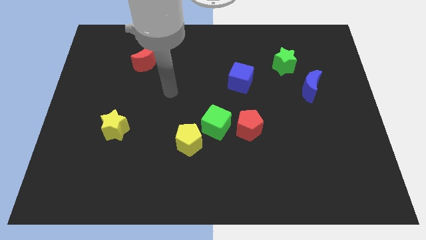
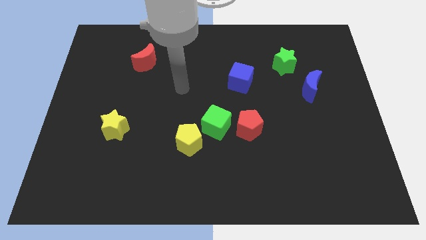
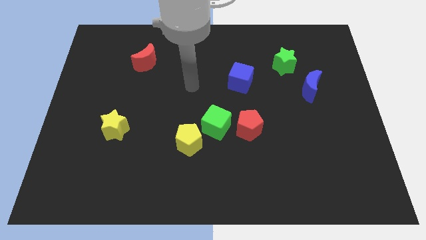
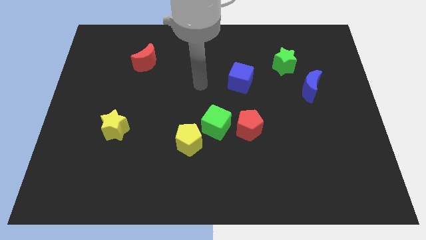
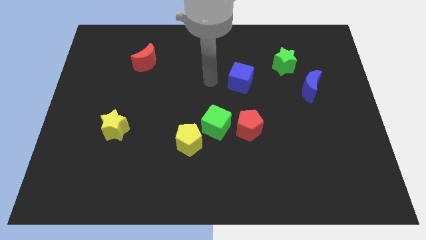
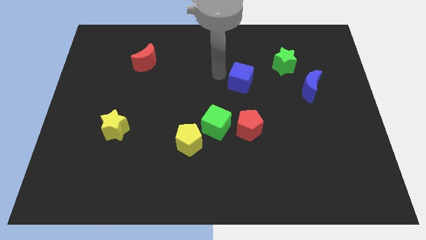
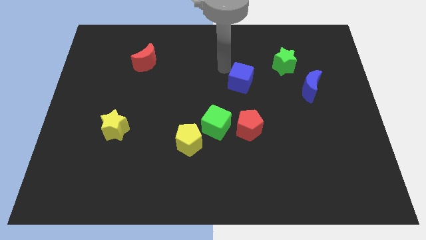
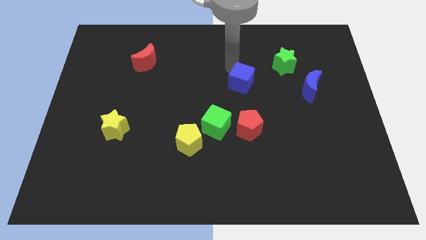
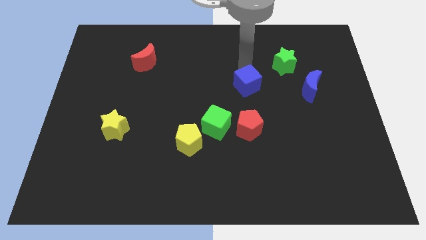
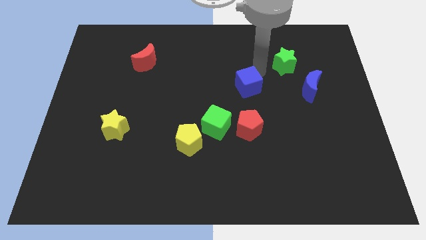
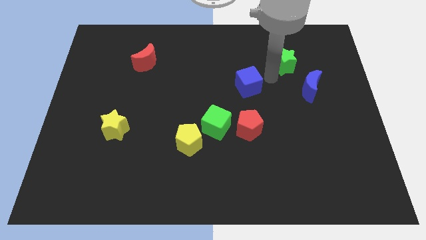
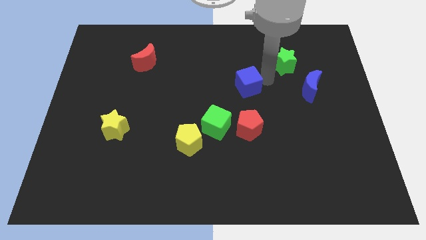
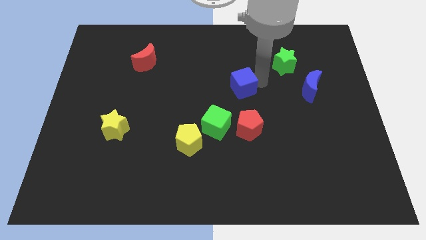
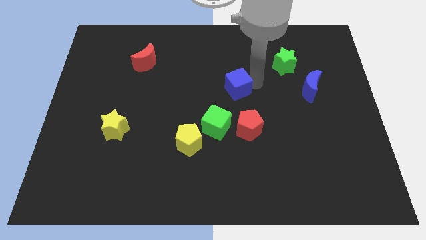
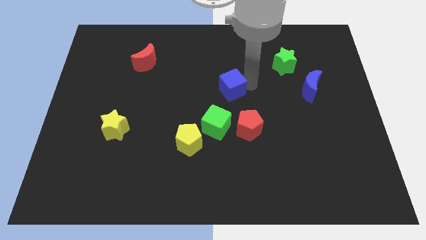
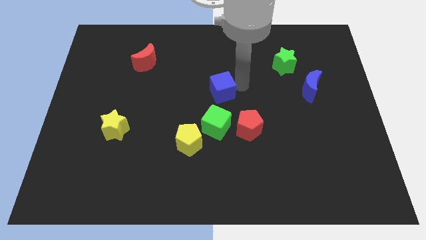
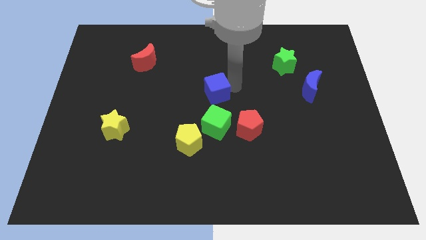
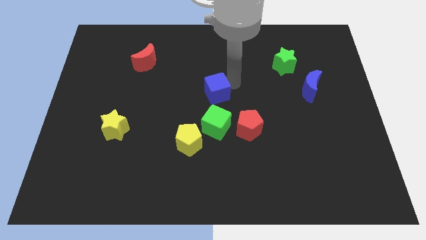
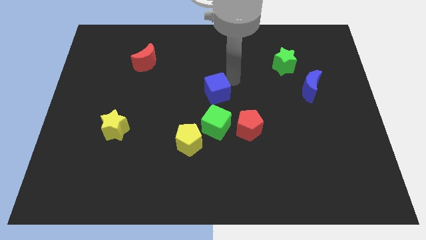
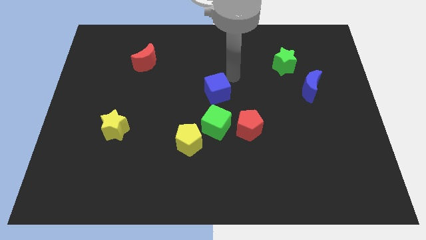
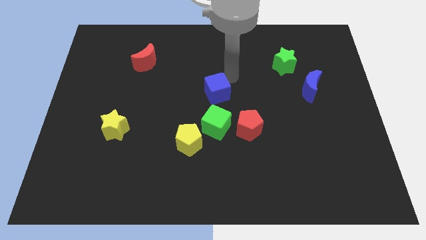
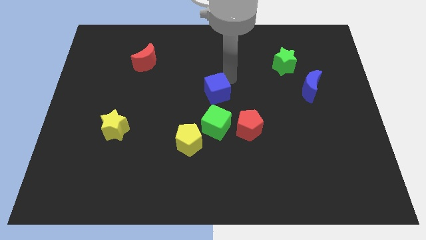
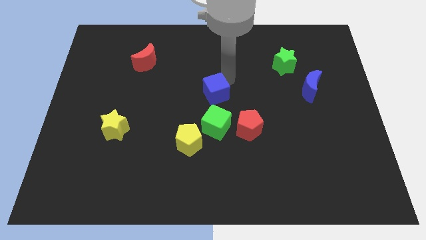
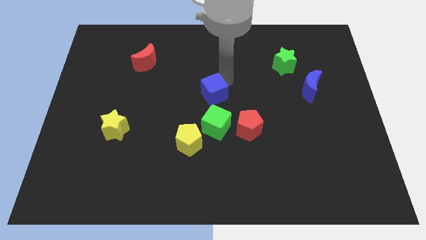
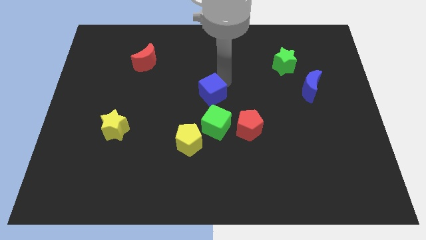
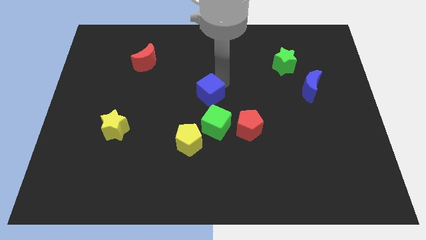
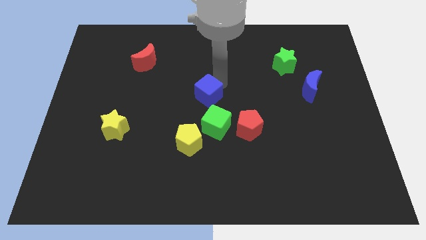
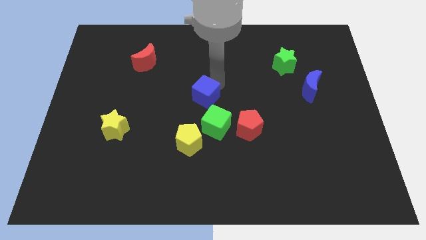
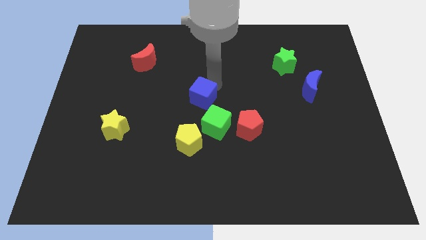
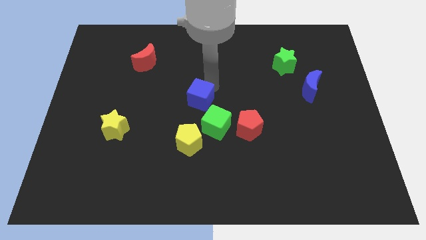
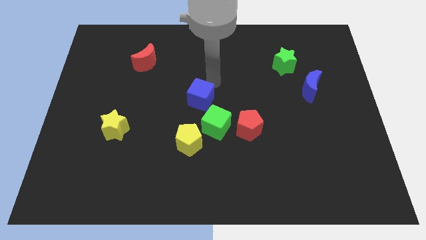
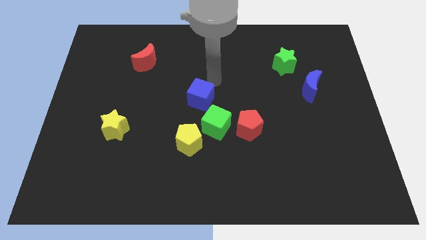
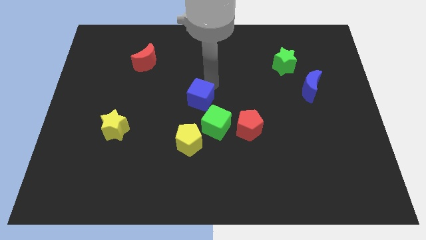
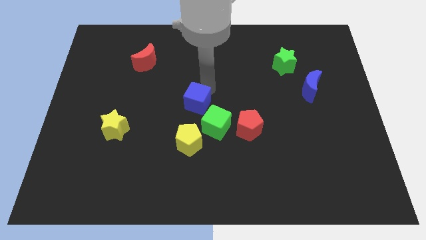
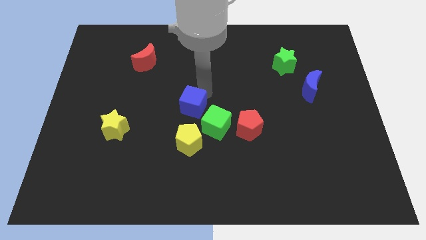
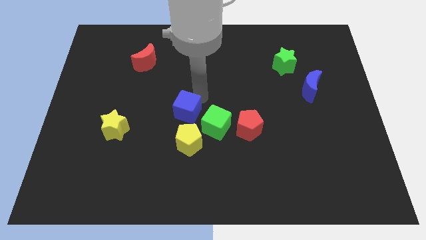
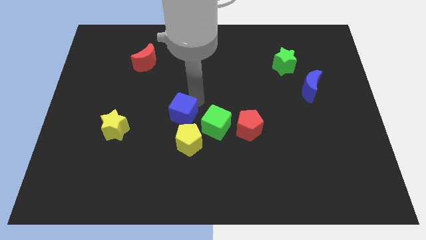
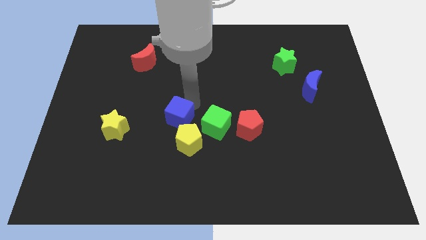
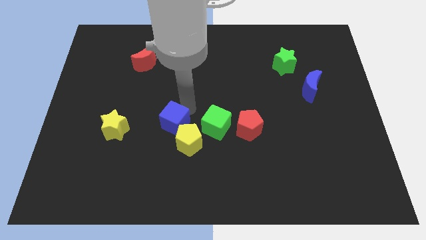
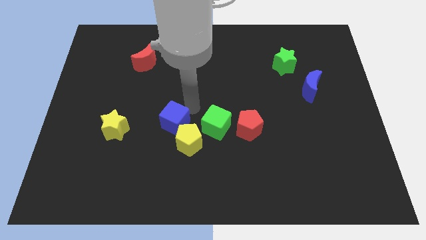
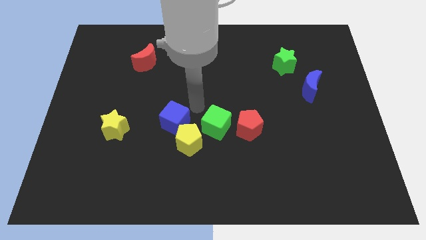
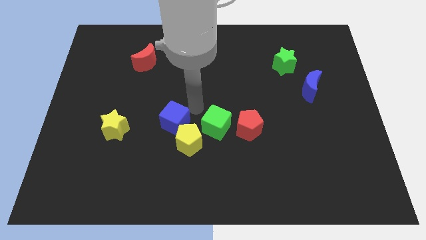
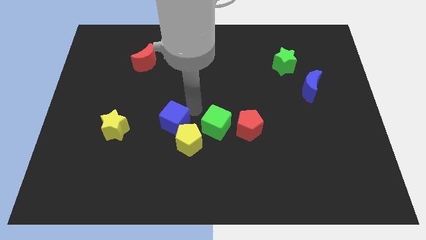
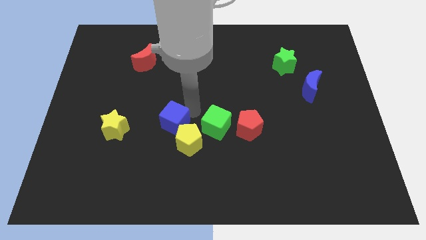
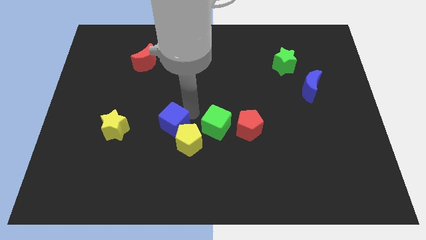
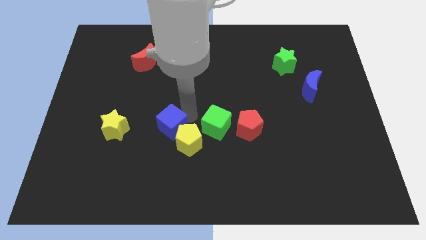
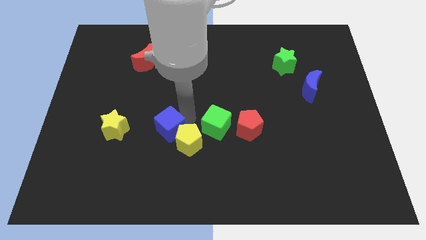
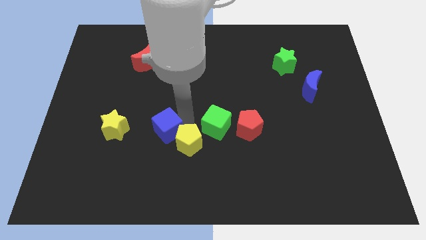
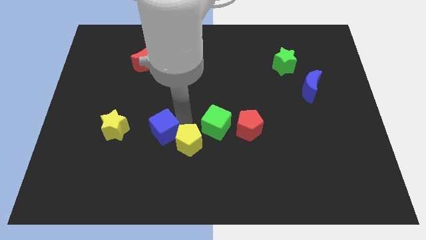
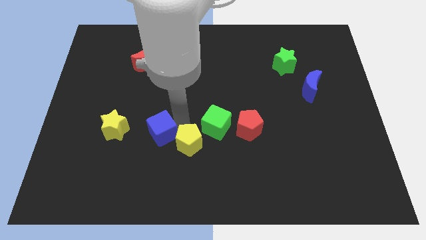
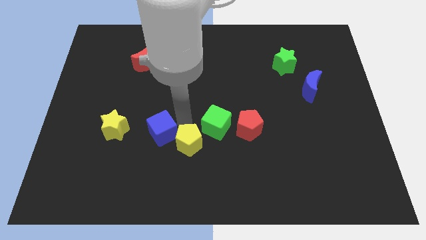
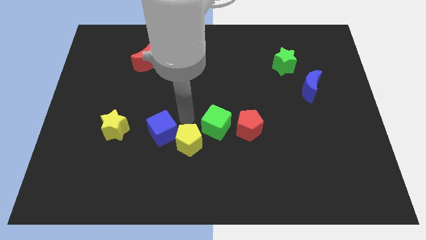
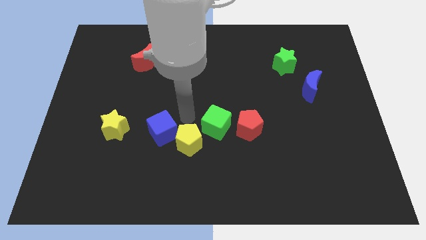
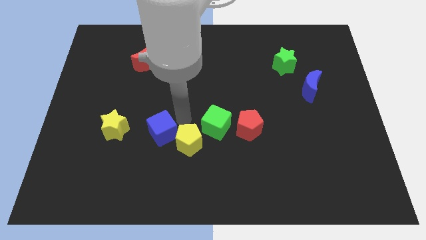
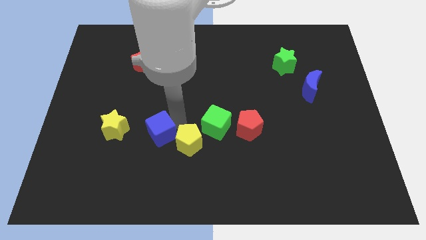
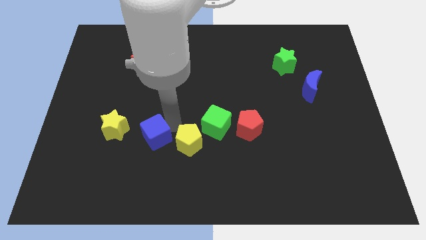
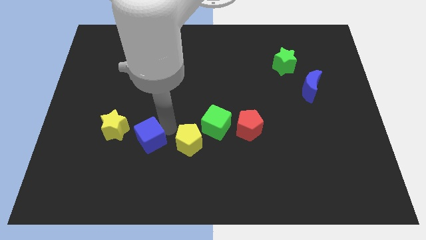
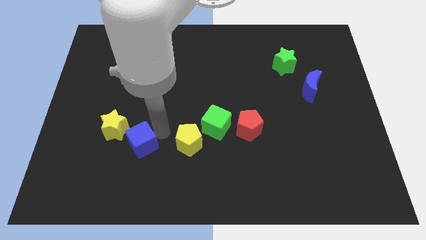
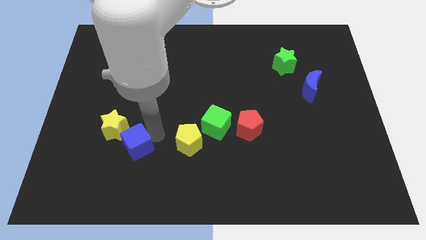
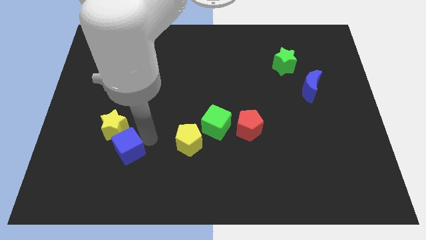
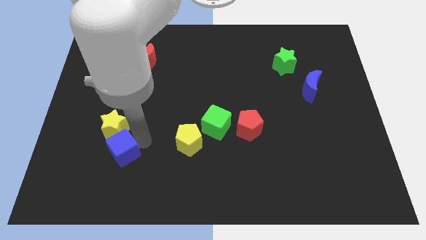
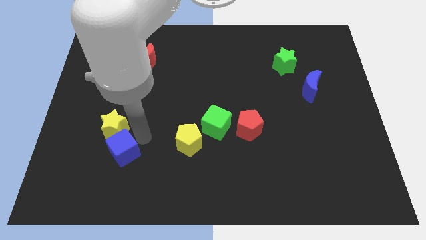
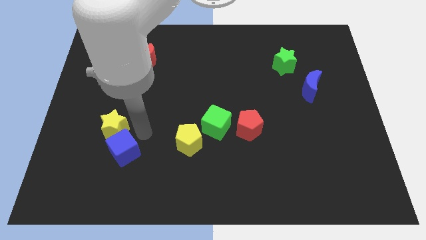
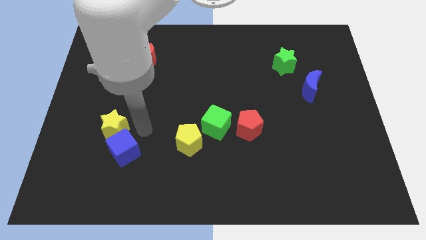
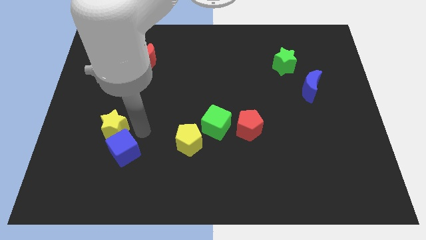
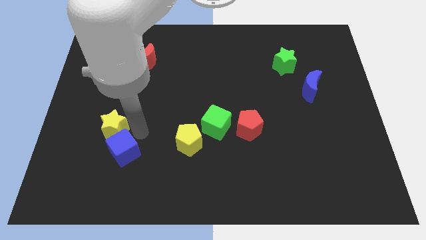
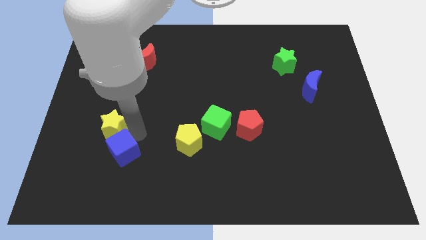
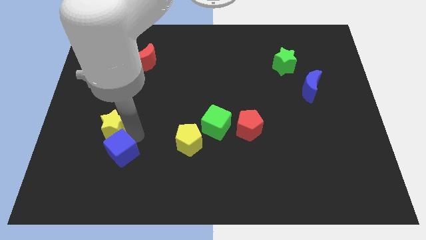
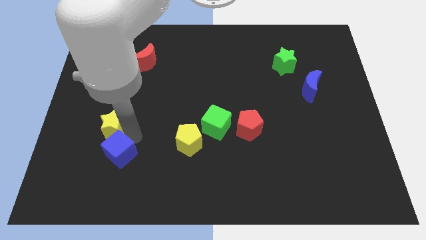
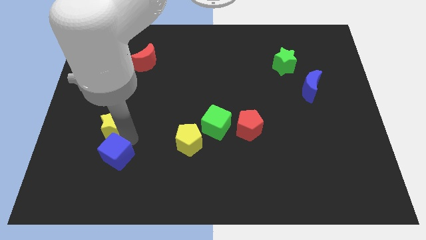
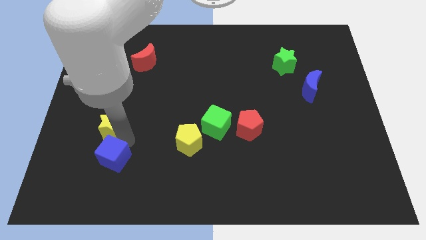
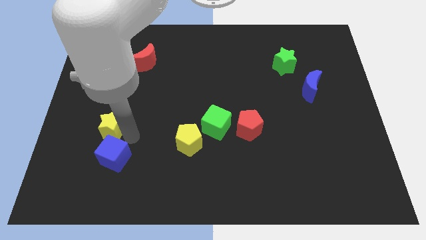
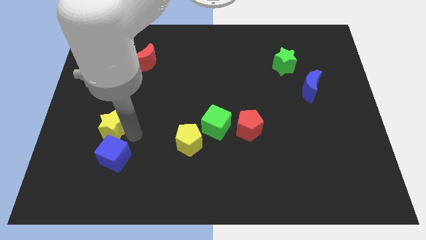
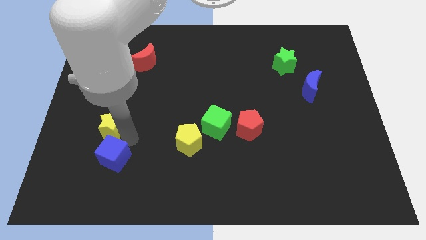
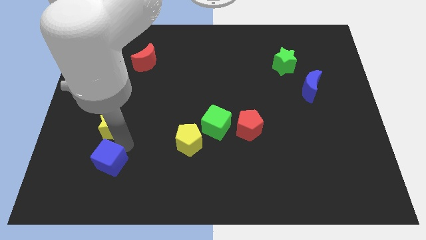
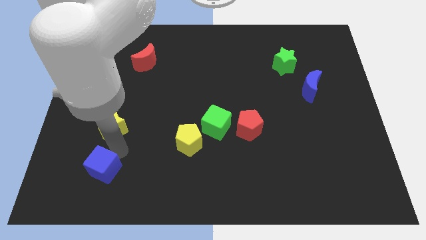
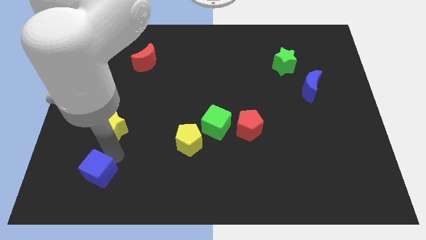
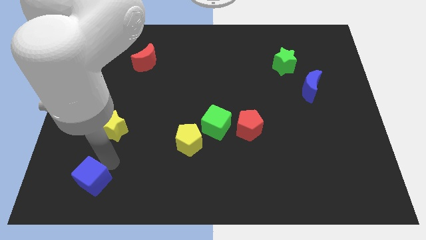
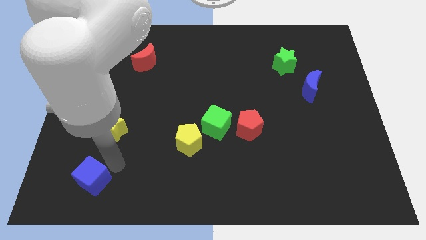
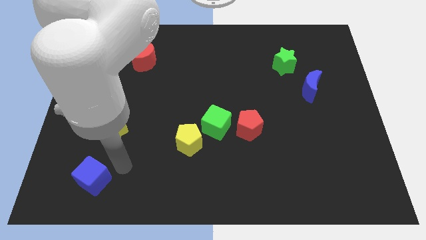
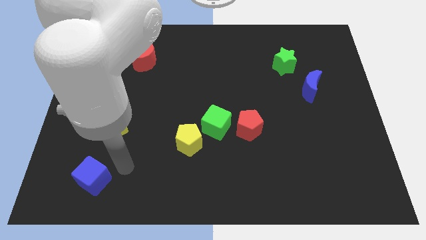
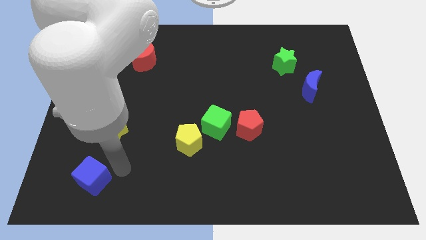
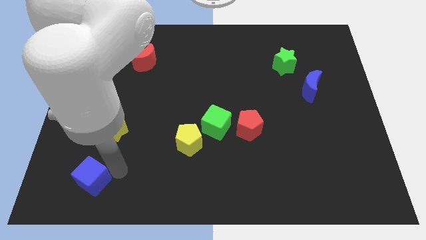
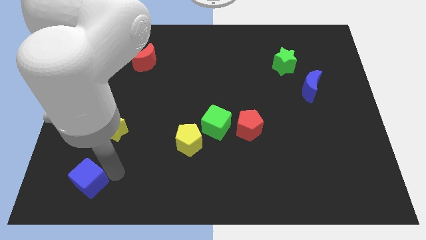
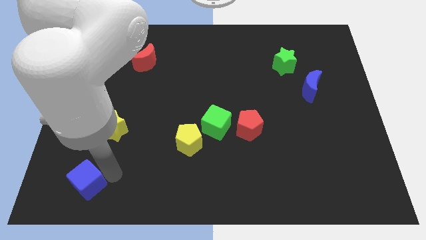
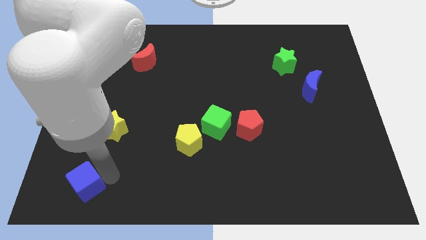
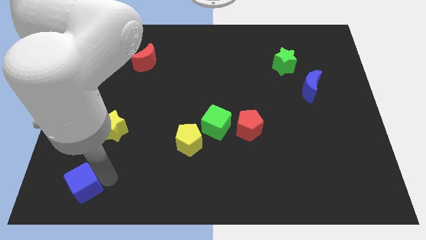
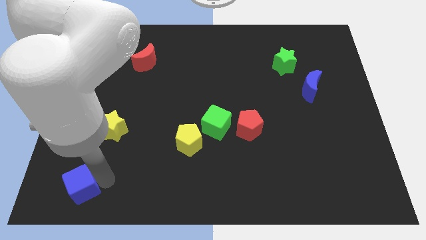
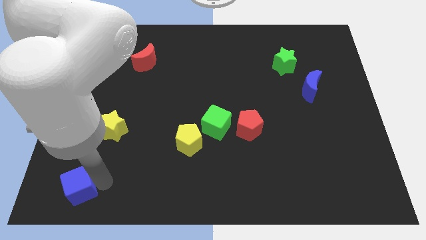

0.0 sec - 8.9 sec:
move the blue cube to the bottom left corner
